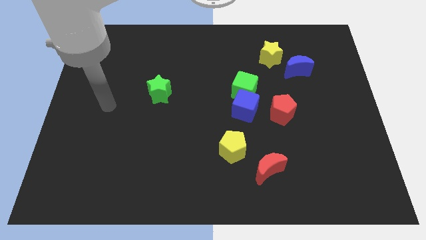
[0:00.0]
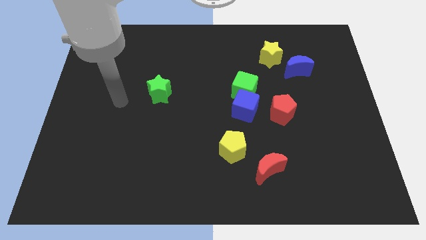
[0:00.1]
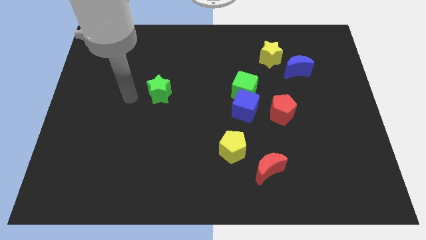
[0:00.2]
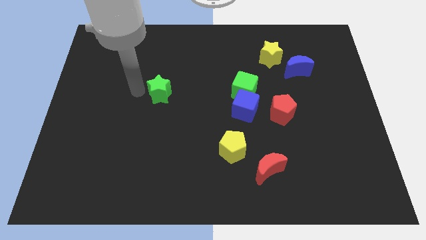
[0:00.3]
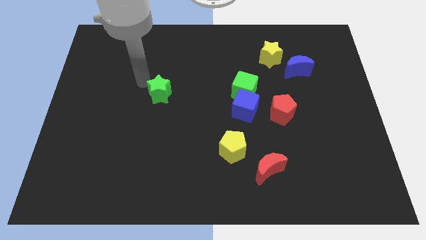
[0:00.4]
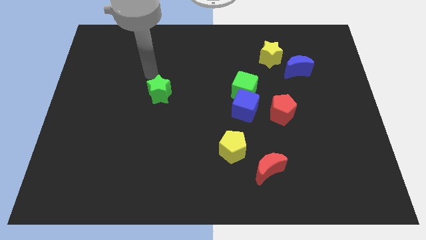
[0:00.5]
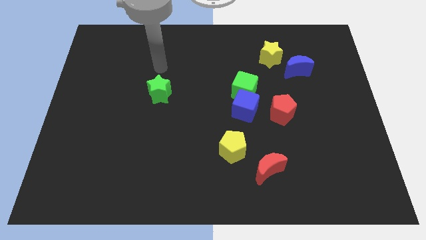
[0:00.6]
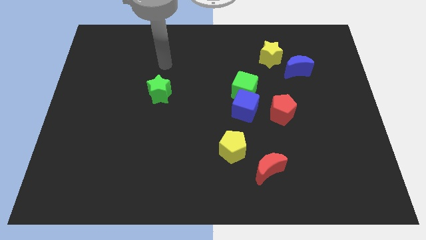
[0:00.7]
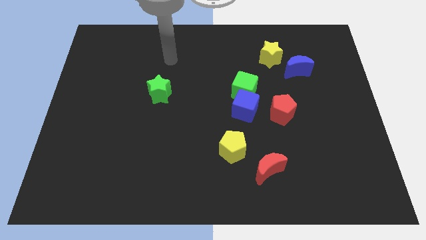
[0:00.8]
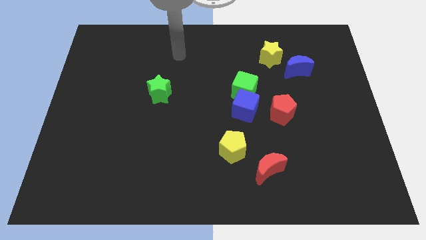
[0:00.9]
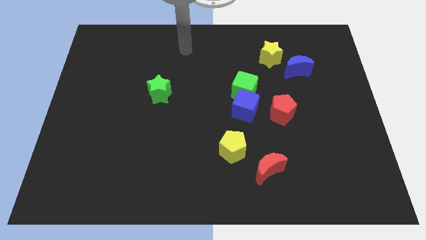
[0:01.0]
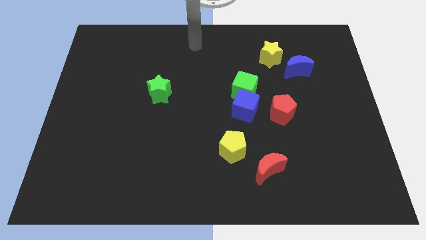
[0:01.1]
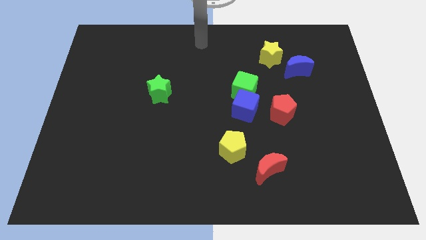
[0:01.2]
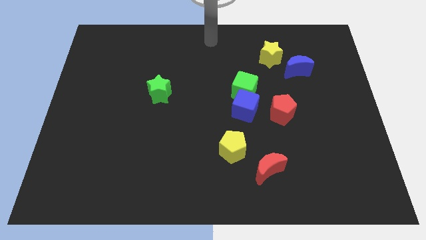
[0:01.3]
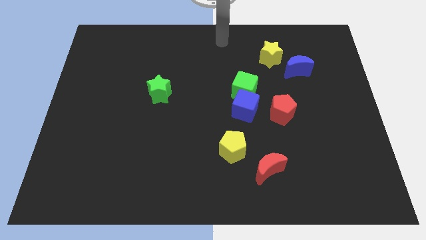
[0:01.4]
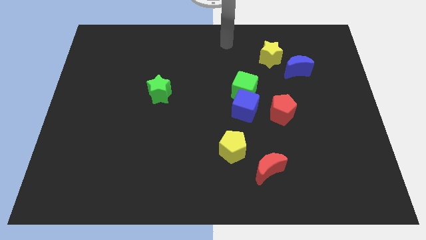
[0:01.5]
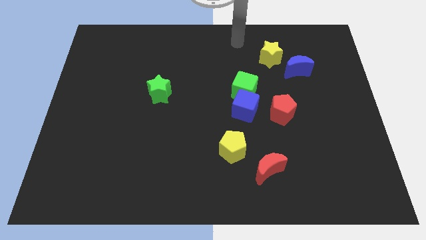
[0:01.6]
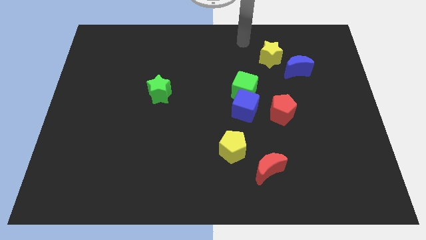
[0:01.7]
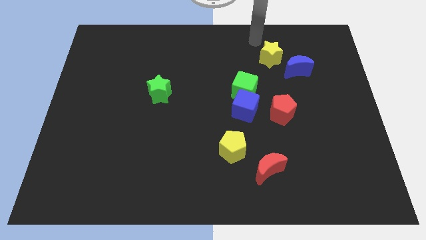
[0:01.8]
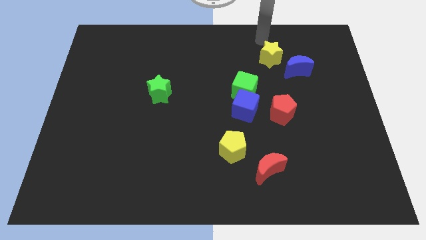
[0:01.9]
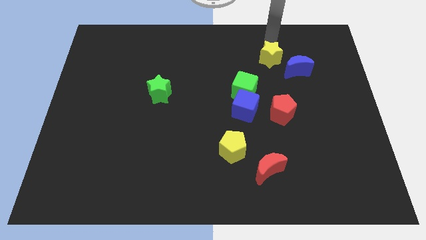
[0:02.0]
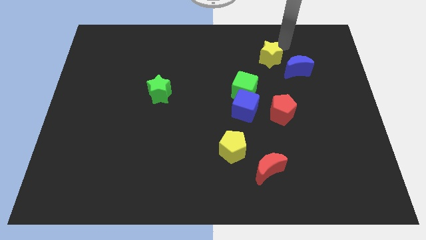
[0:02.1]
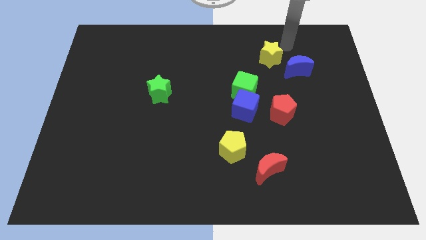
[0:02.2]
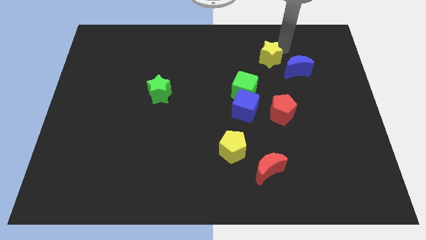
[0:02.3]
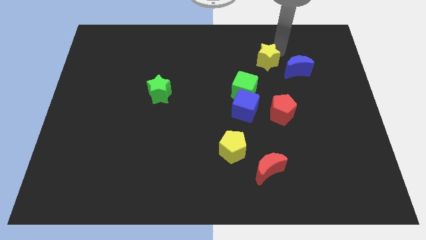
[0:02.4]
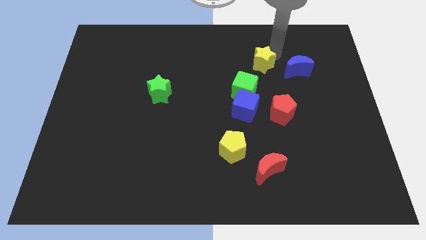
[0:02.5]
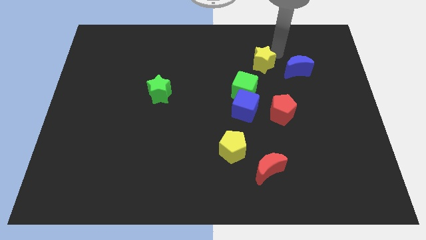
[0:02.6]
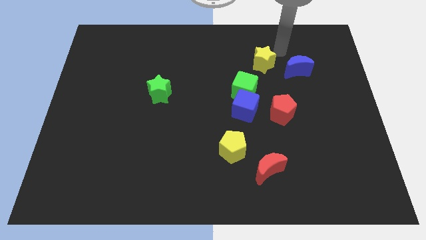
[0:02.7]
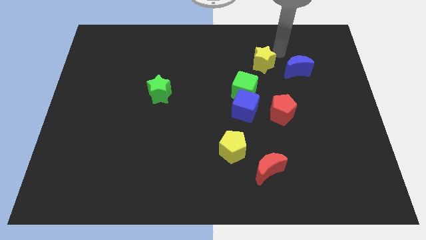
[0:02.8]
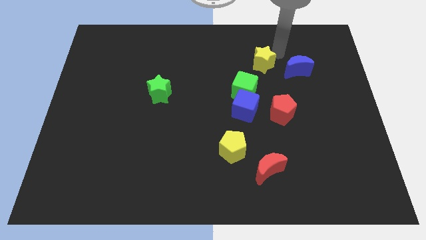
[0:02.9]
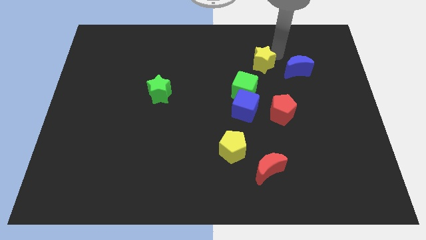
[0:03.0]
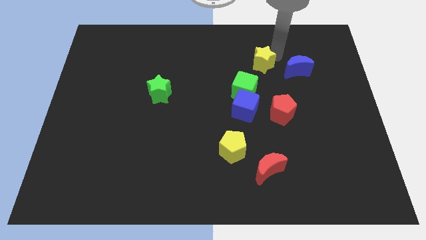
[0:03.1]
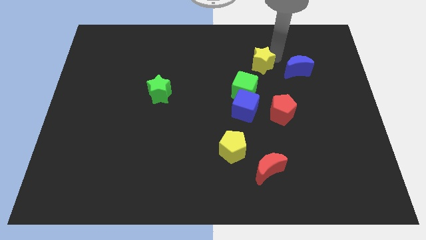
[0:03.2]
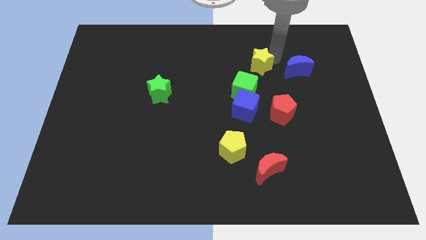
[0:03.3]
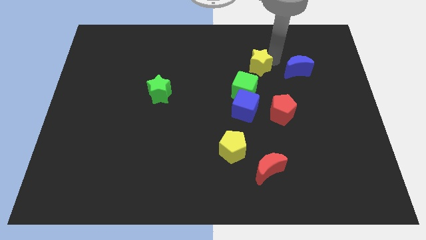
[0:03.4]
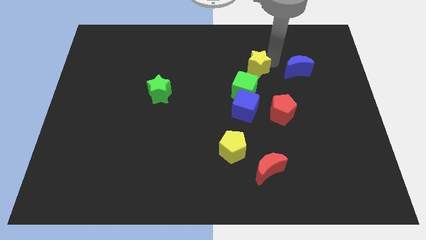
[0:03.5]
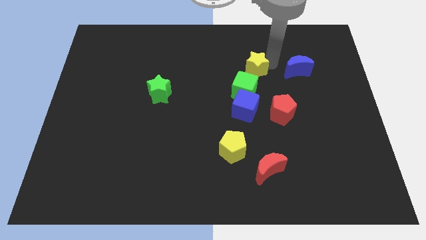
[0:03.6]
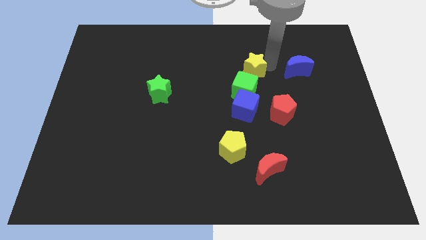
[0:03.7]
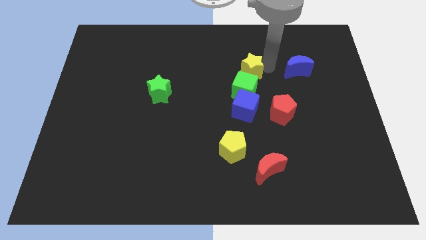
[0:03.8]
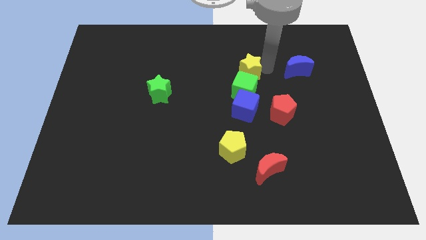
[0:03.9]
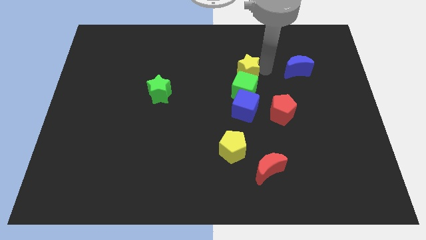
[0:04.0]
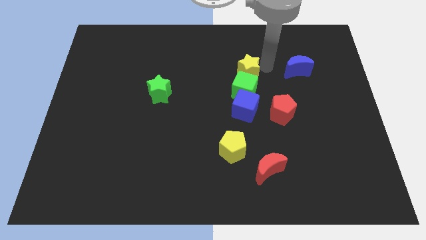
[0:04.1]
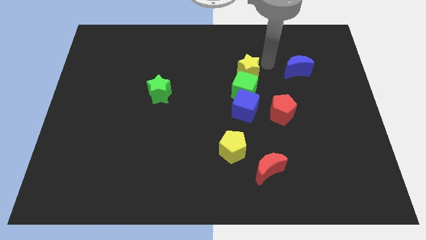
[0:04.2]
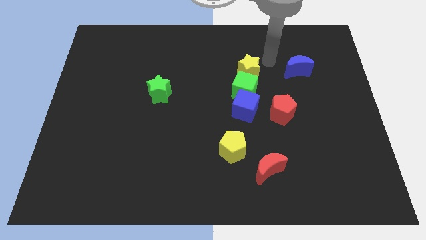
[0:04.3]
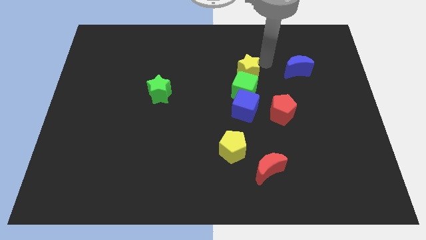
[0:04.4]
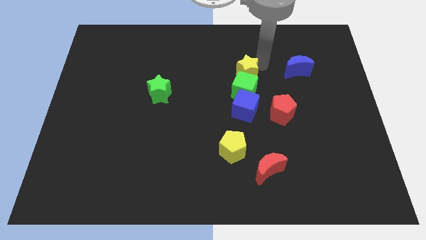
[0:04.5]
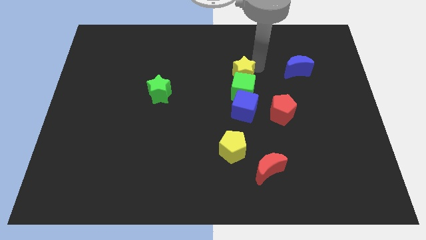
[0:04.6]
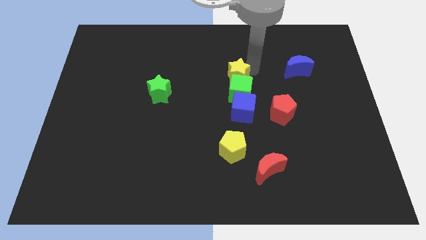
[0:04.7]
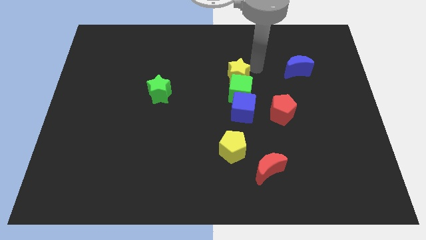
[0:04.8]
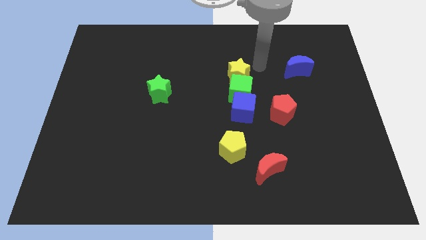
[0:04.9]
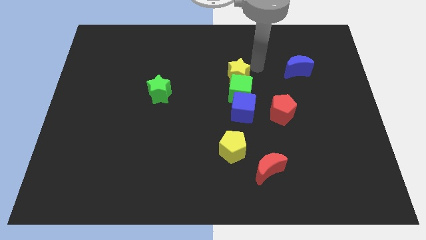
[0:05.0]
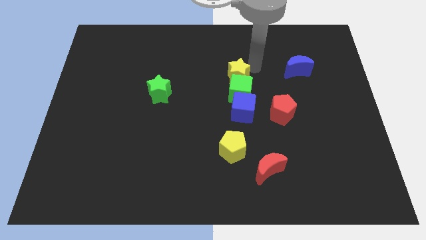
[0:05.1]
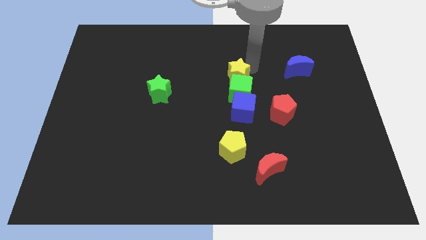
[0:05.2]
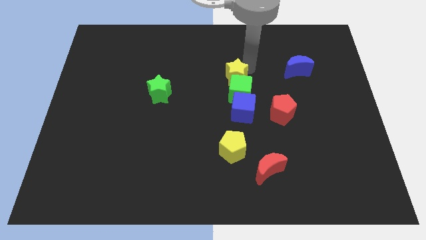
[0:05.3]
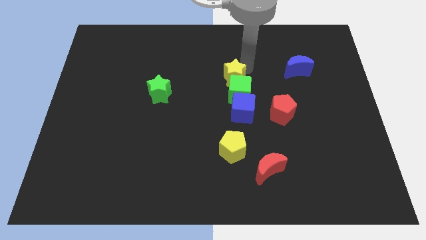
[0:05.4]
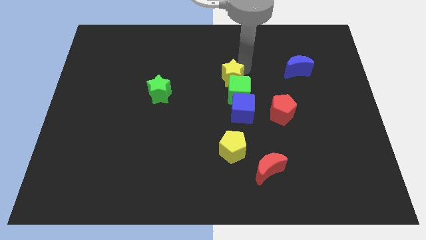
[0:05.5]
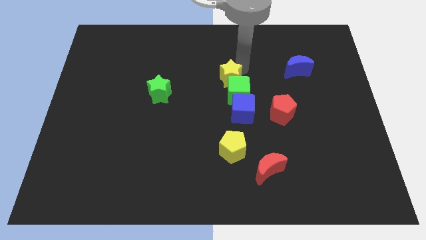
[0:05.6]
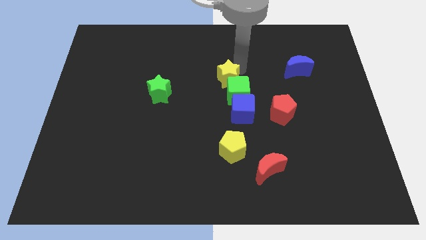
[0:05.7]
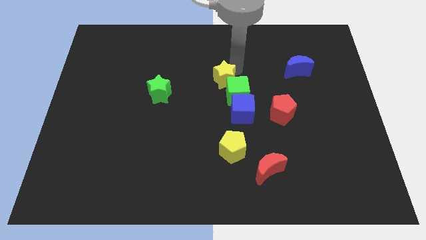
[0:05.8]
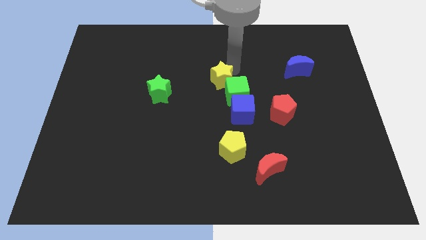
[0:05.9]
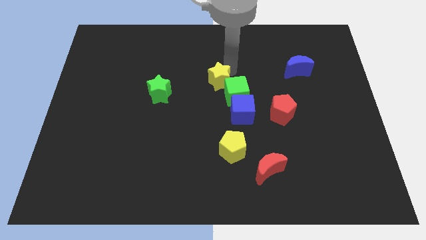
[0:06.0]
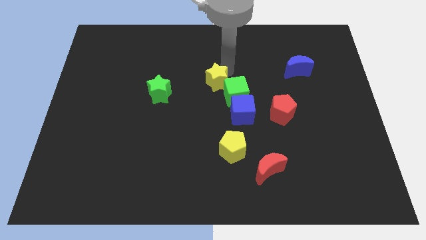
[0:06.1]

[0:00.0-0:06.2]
put the yellow star to the right of the green star

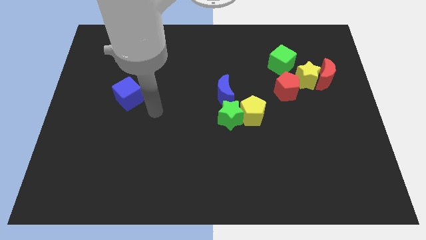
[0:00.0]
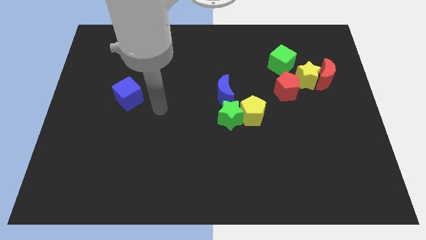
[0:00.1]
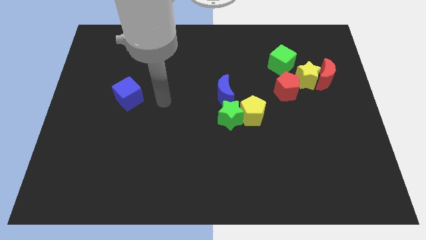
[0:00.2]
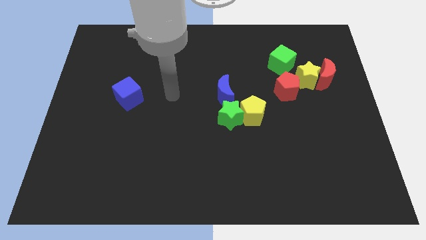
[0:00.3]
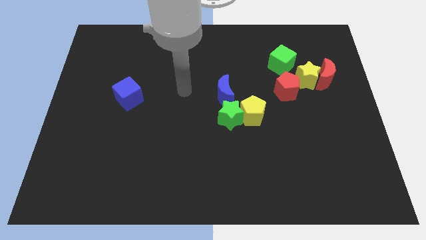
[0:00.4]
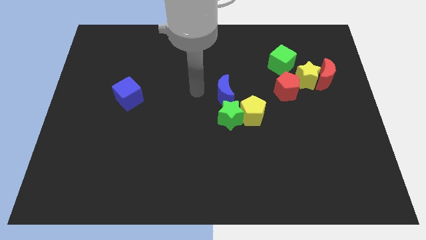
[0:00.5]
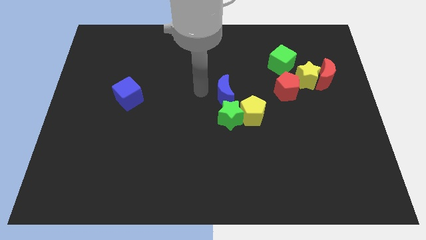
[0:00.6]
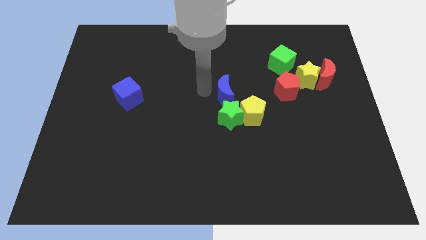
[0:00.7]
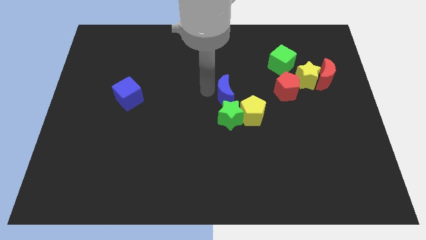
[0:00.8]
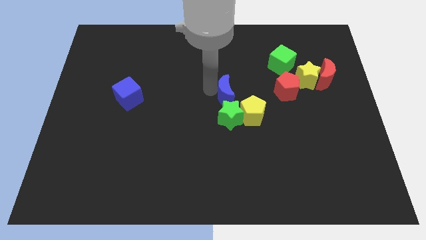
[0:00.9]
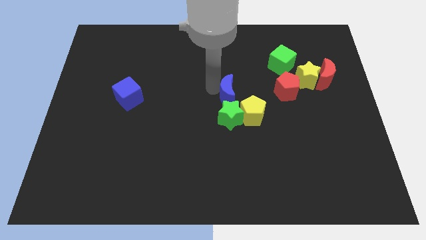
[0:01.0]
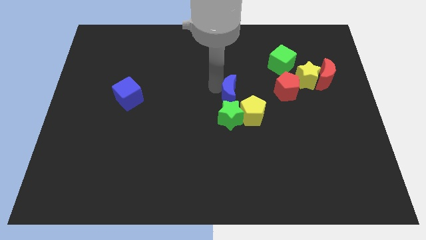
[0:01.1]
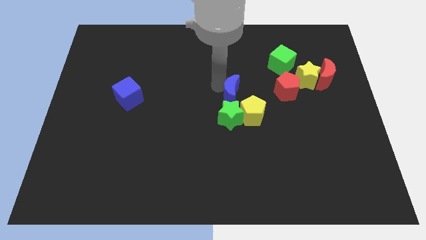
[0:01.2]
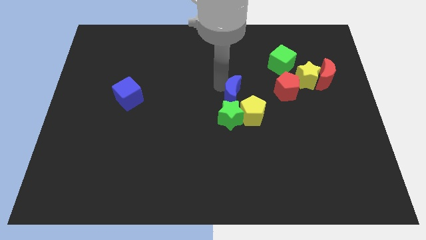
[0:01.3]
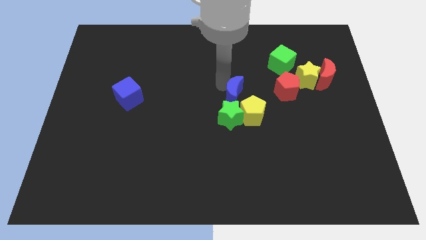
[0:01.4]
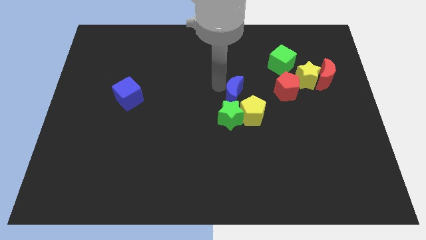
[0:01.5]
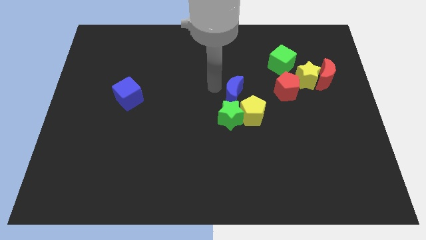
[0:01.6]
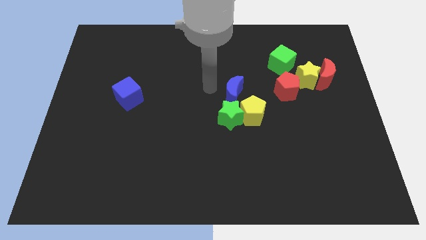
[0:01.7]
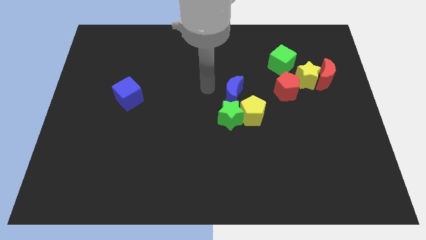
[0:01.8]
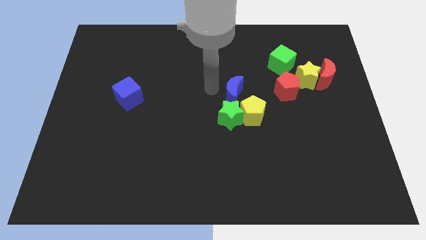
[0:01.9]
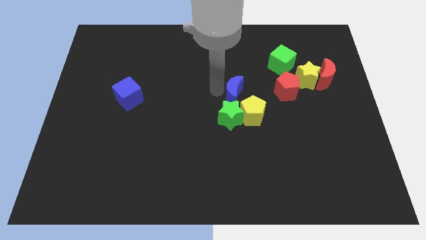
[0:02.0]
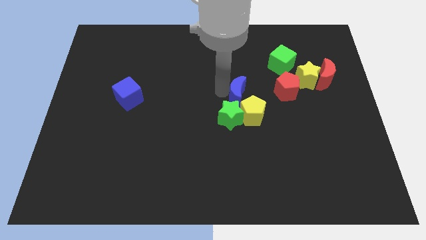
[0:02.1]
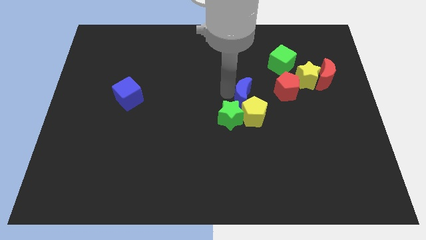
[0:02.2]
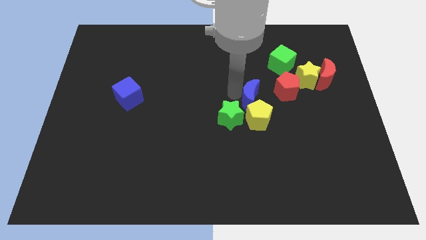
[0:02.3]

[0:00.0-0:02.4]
put the blue moon to the bottom left side of the red pentagon
